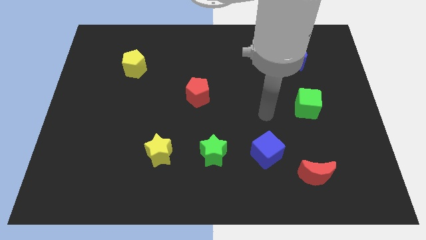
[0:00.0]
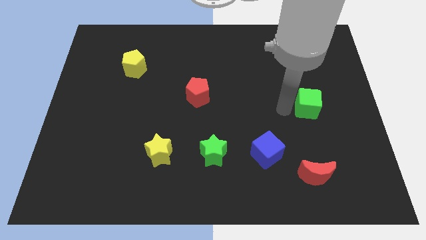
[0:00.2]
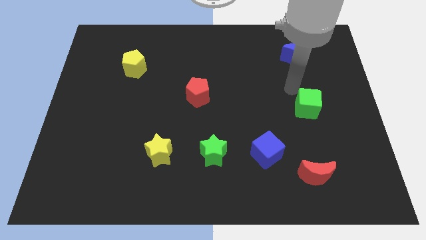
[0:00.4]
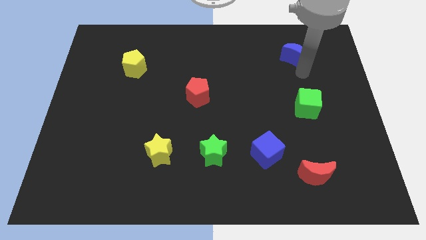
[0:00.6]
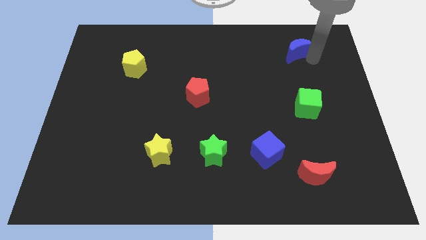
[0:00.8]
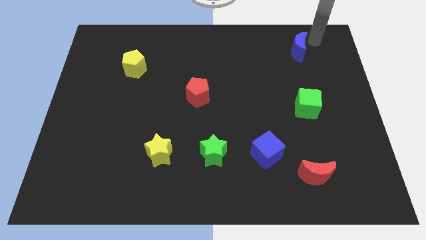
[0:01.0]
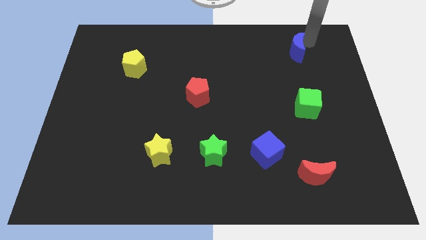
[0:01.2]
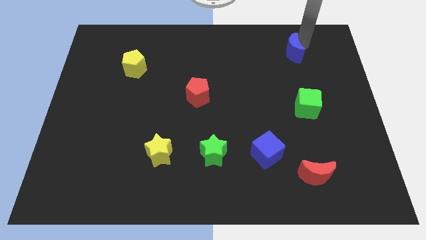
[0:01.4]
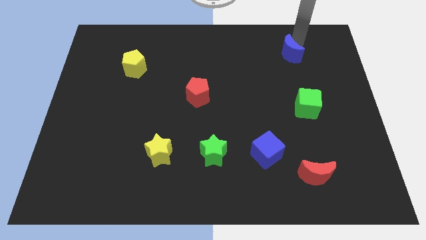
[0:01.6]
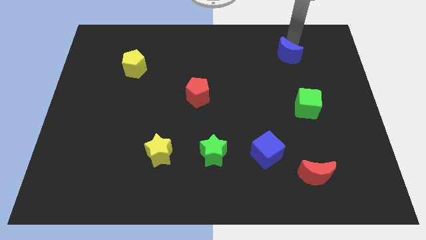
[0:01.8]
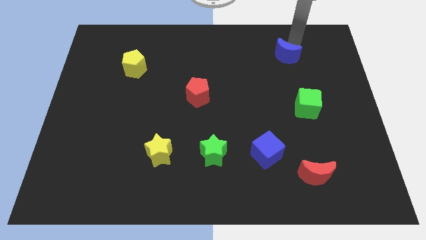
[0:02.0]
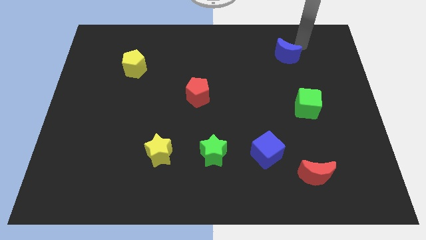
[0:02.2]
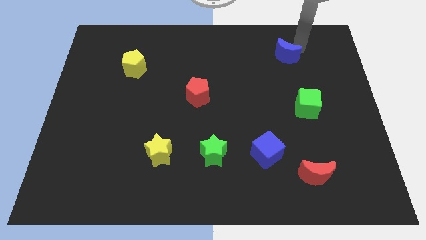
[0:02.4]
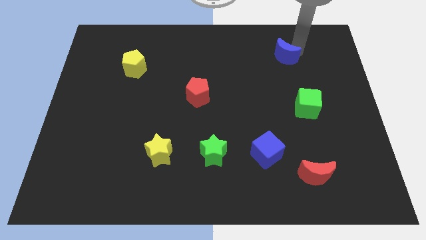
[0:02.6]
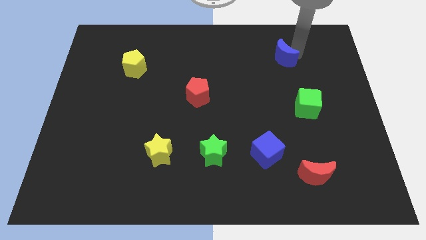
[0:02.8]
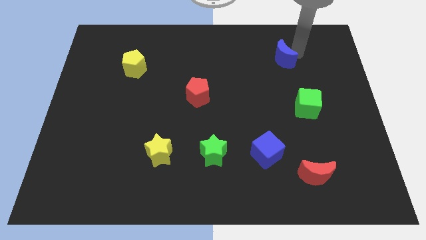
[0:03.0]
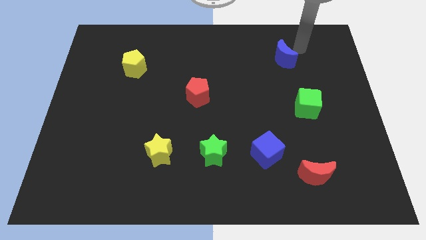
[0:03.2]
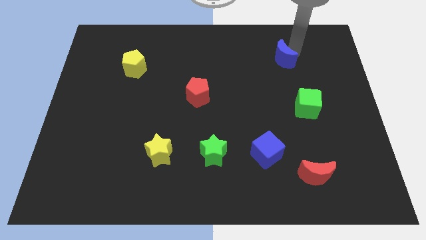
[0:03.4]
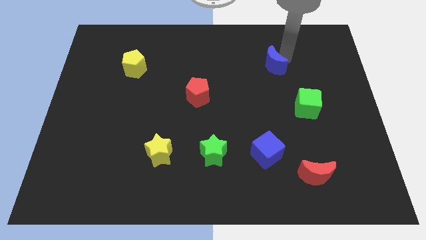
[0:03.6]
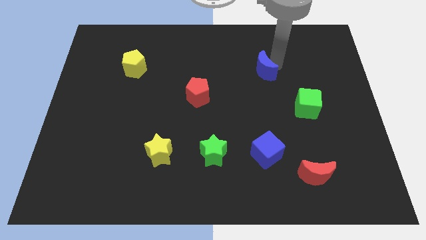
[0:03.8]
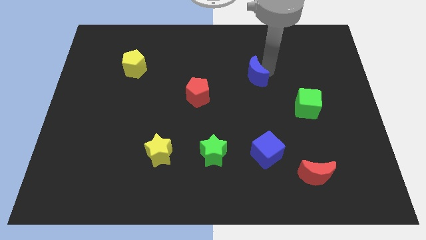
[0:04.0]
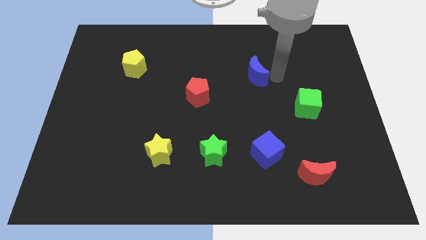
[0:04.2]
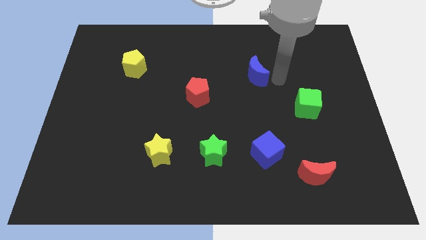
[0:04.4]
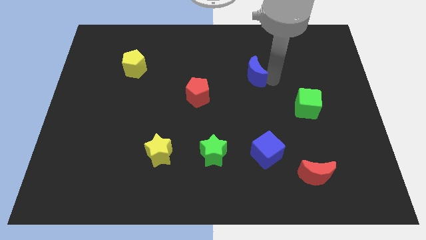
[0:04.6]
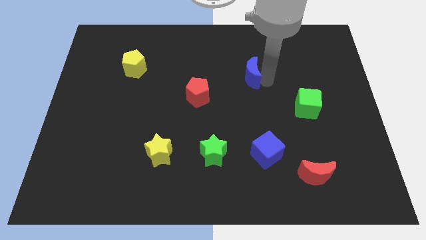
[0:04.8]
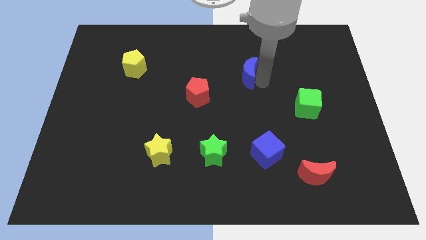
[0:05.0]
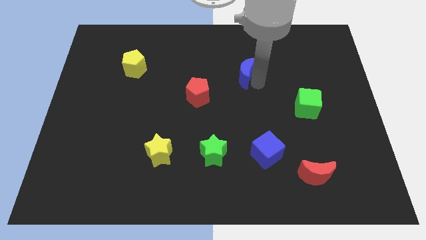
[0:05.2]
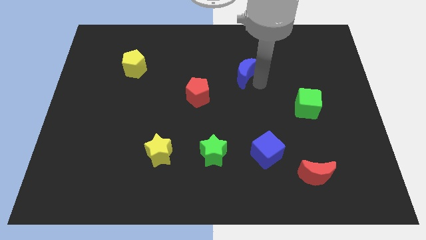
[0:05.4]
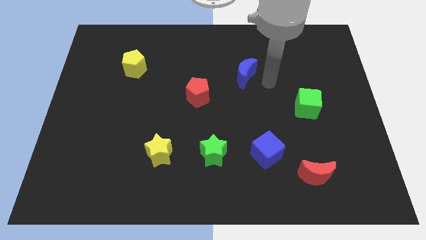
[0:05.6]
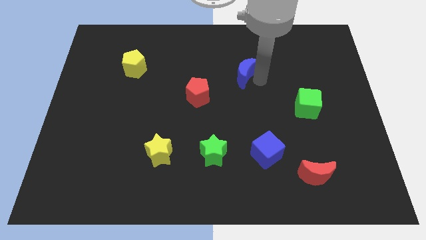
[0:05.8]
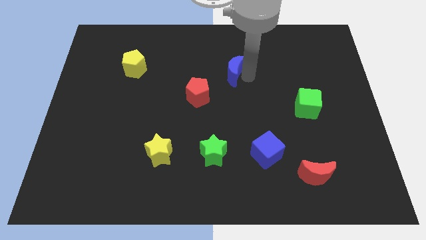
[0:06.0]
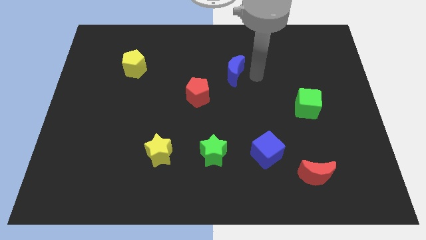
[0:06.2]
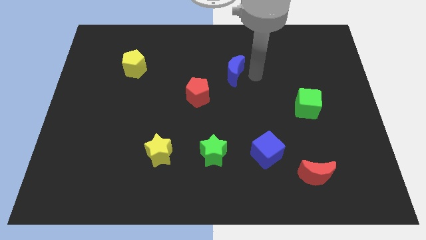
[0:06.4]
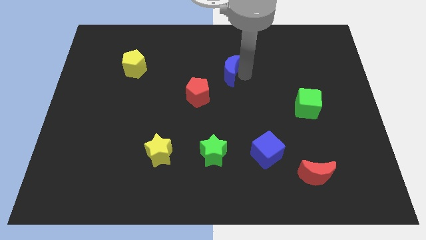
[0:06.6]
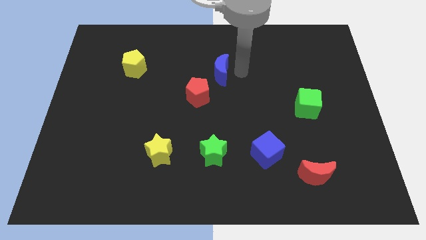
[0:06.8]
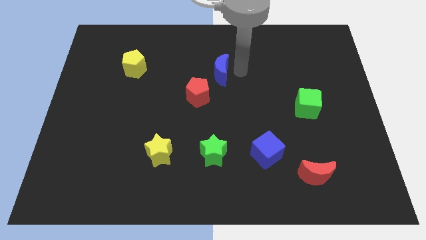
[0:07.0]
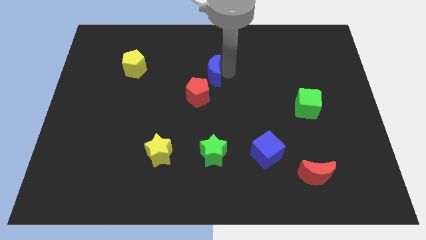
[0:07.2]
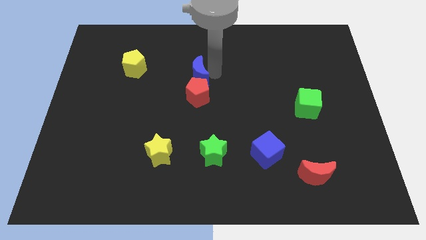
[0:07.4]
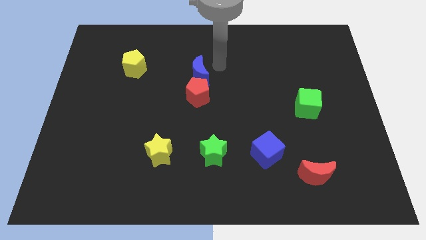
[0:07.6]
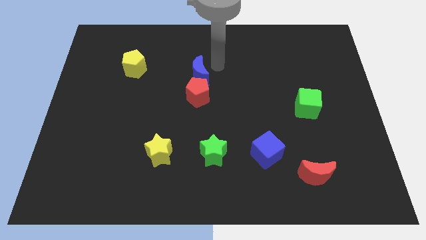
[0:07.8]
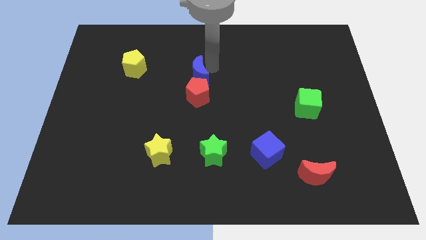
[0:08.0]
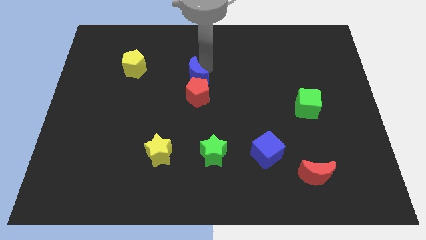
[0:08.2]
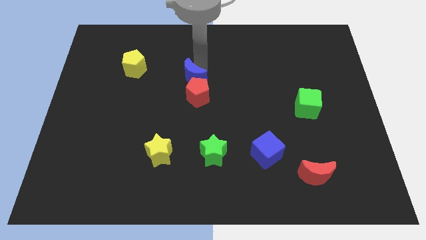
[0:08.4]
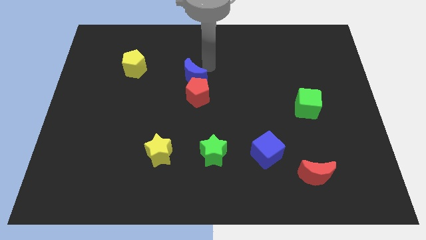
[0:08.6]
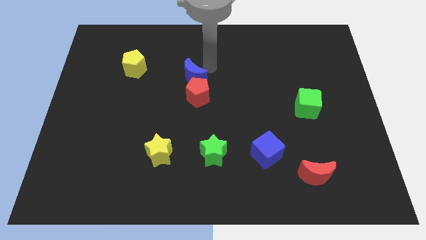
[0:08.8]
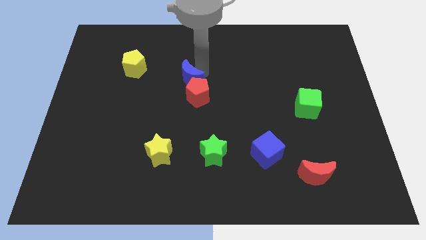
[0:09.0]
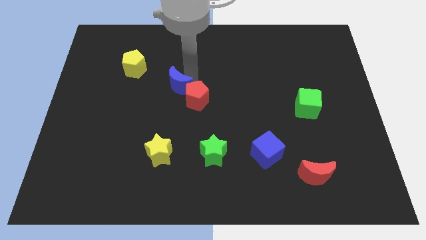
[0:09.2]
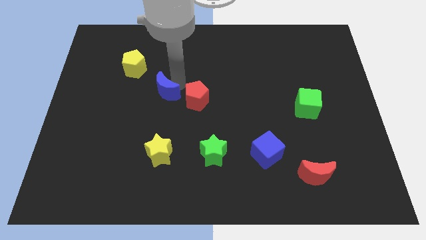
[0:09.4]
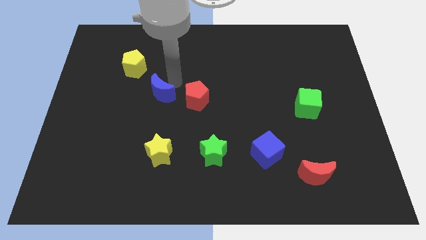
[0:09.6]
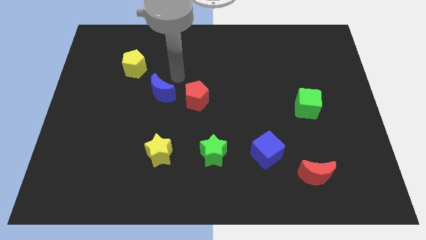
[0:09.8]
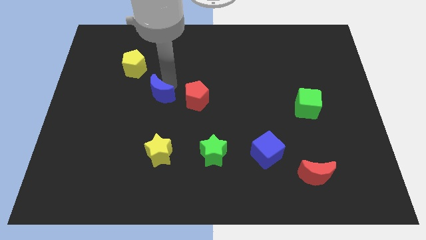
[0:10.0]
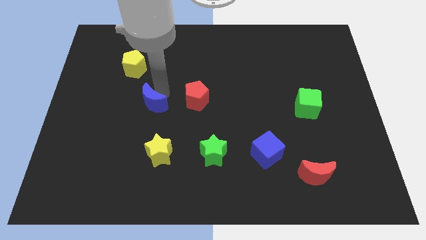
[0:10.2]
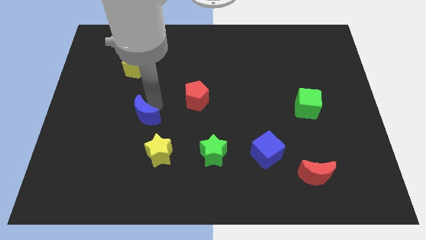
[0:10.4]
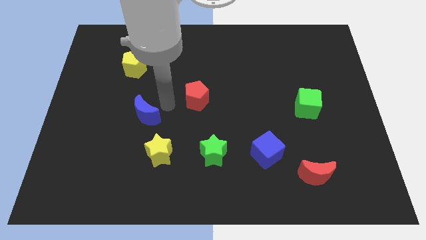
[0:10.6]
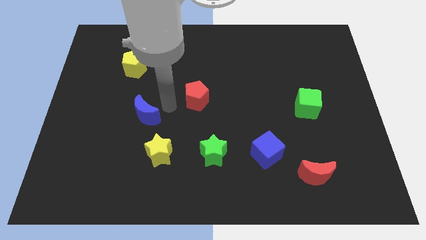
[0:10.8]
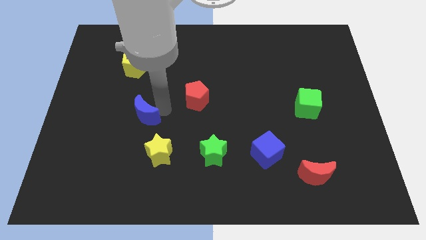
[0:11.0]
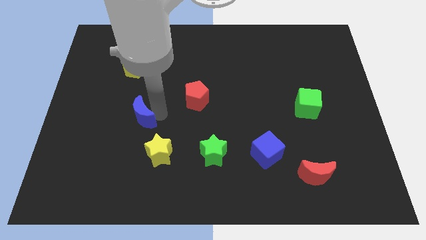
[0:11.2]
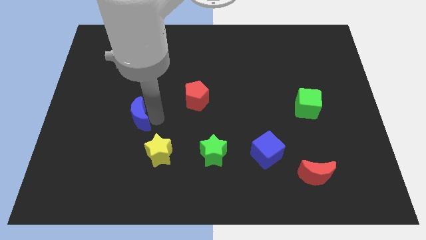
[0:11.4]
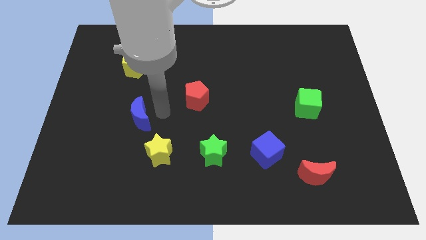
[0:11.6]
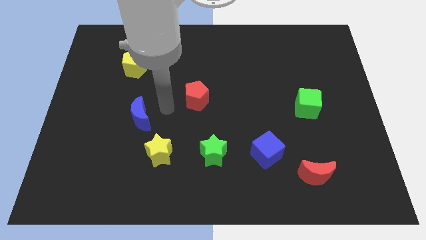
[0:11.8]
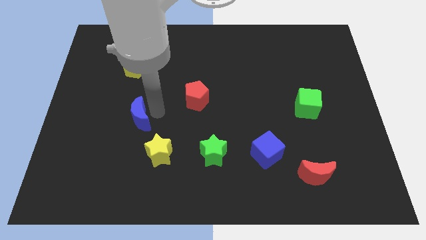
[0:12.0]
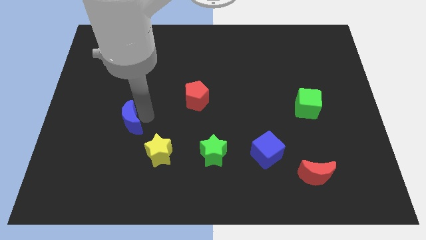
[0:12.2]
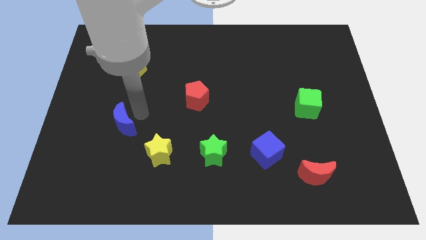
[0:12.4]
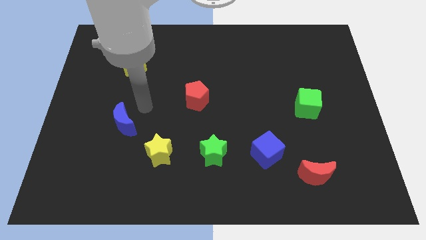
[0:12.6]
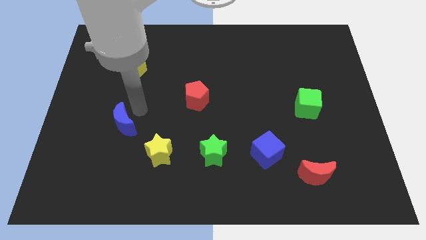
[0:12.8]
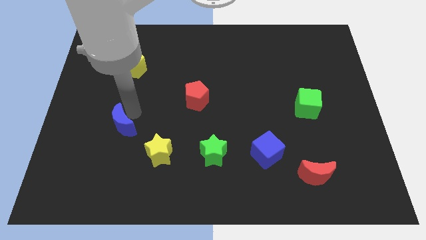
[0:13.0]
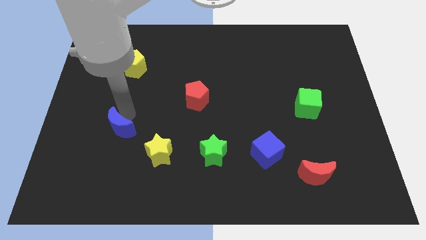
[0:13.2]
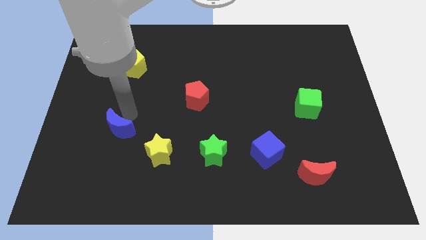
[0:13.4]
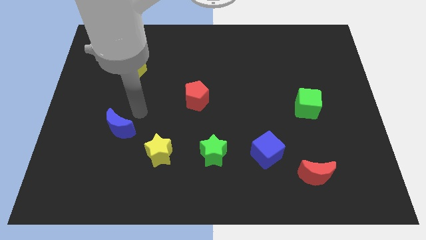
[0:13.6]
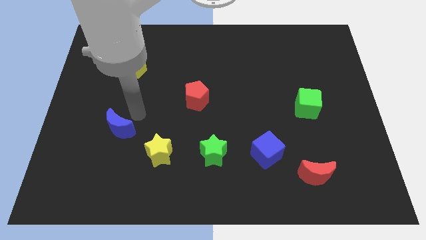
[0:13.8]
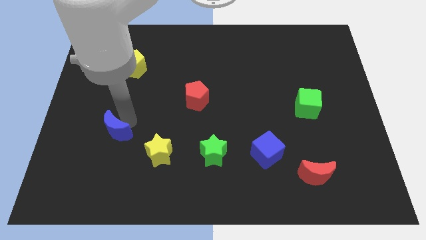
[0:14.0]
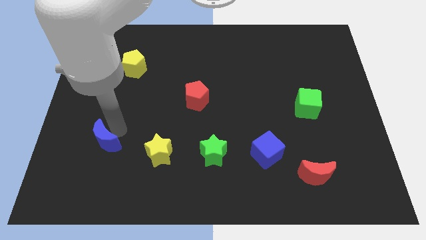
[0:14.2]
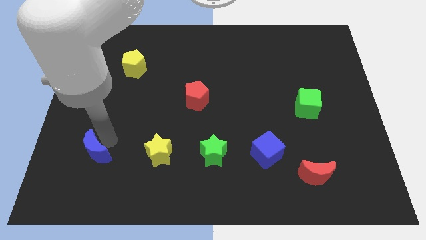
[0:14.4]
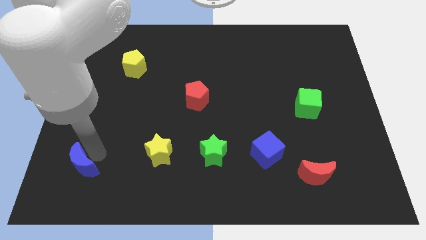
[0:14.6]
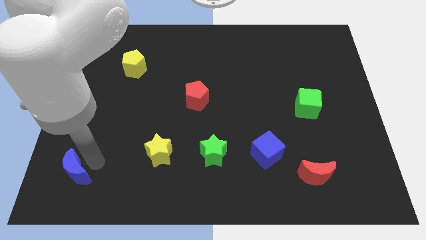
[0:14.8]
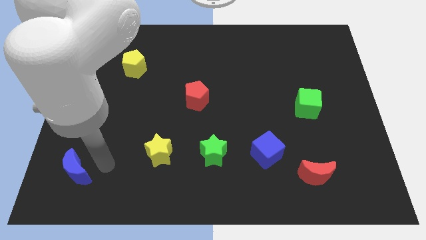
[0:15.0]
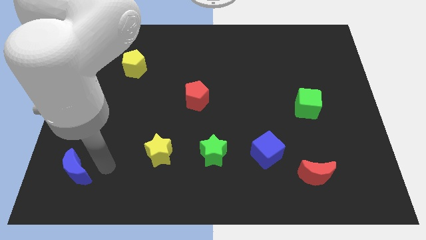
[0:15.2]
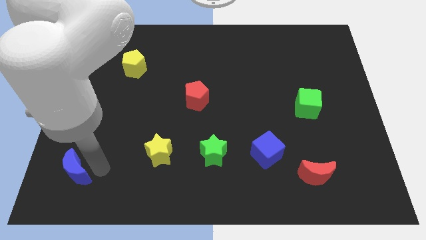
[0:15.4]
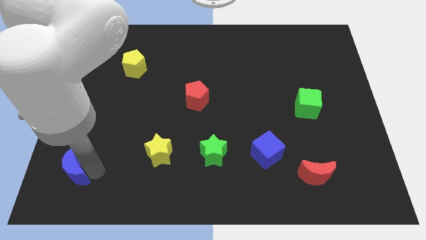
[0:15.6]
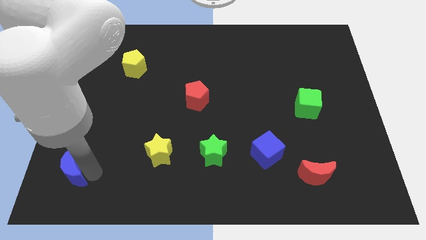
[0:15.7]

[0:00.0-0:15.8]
push the blue moon to the lower left corner
